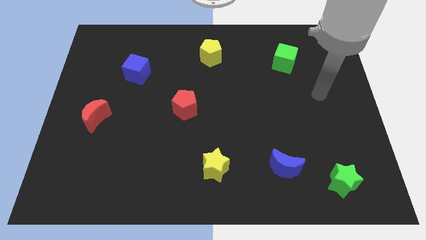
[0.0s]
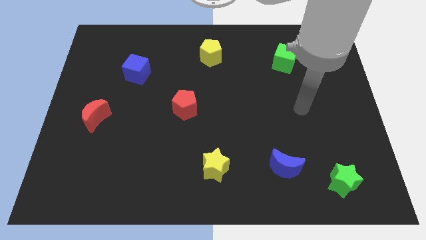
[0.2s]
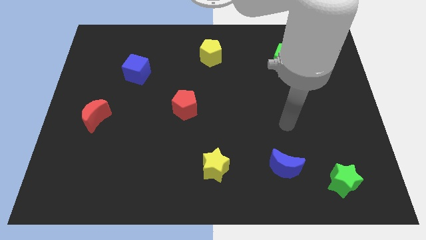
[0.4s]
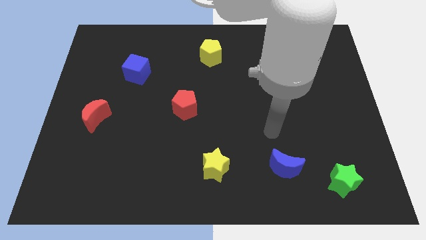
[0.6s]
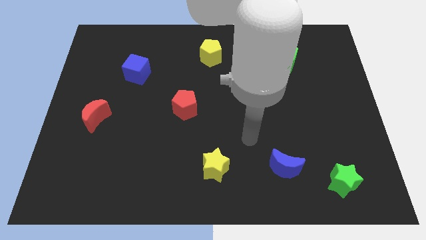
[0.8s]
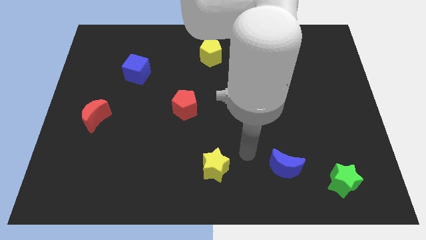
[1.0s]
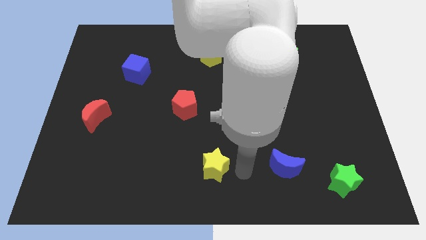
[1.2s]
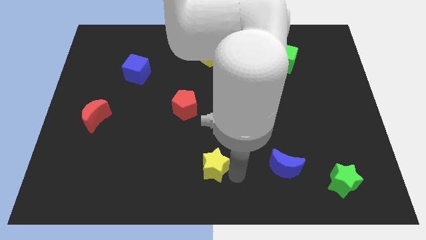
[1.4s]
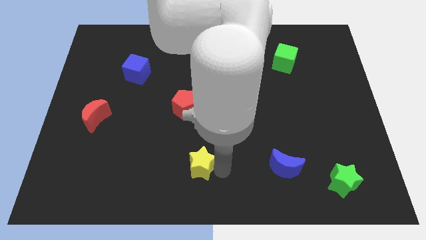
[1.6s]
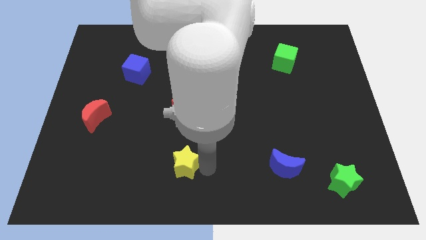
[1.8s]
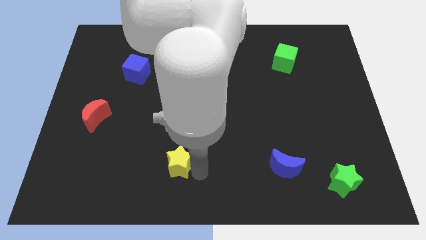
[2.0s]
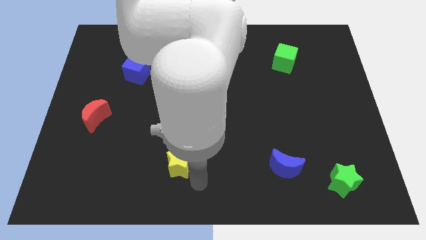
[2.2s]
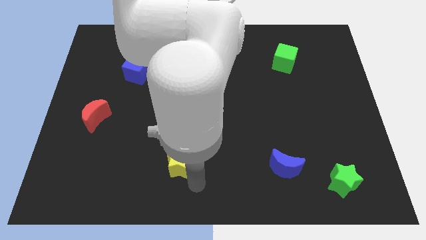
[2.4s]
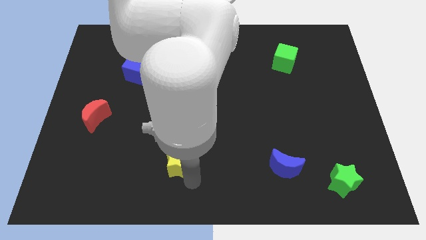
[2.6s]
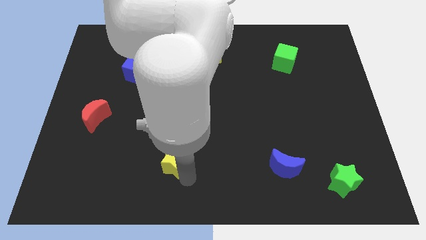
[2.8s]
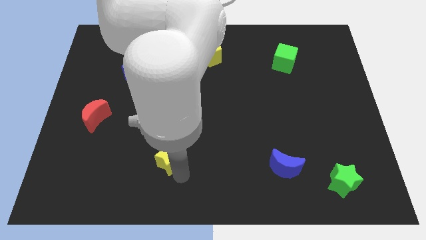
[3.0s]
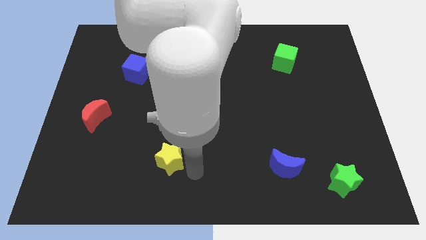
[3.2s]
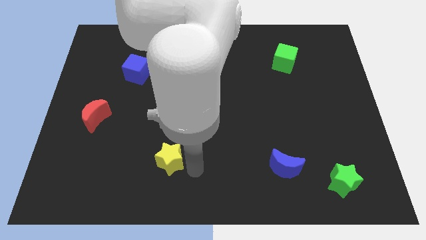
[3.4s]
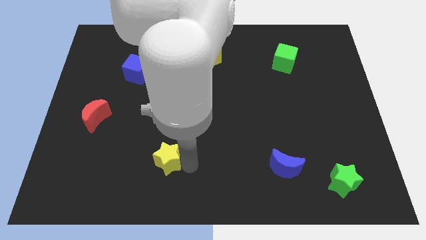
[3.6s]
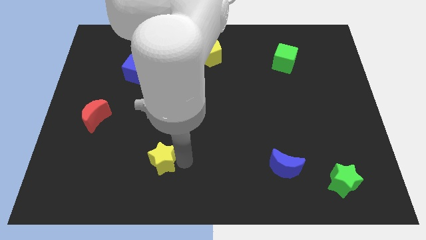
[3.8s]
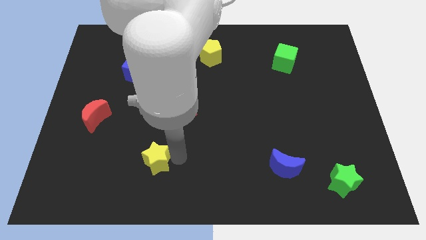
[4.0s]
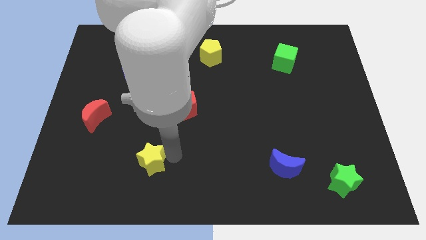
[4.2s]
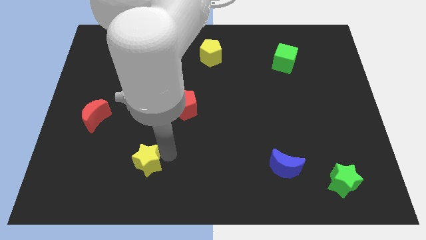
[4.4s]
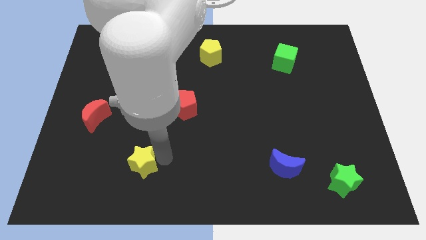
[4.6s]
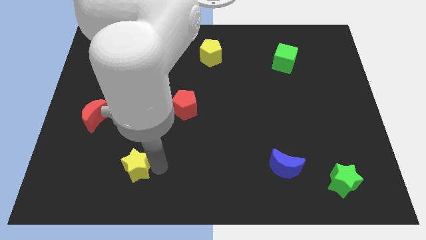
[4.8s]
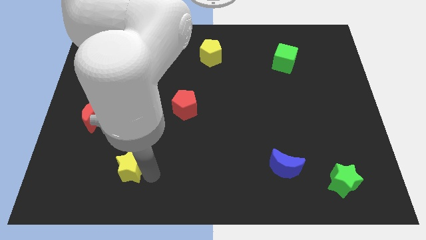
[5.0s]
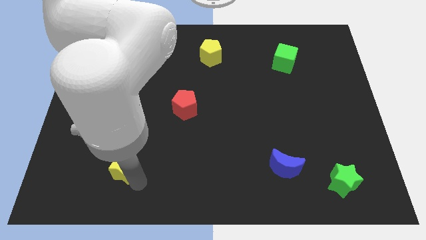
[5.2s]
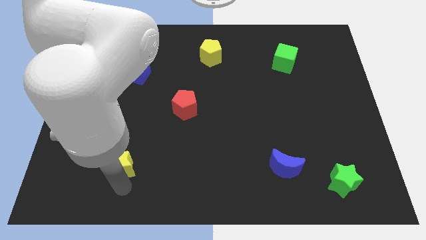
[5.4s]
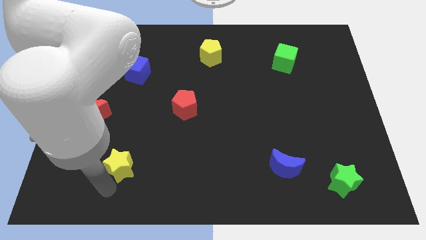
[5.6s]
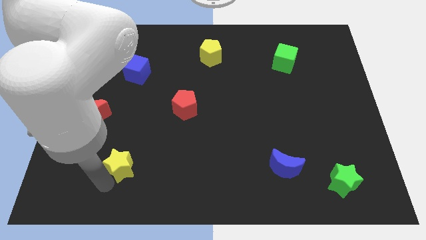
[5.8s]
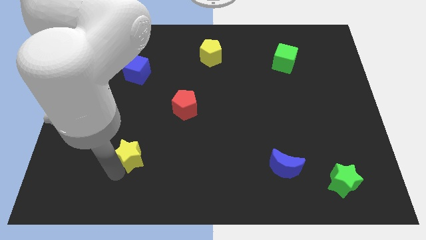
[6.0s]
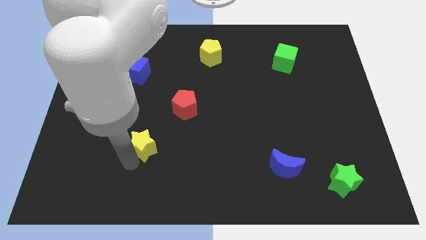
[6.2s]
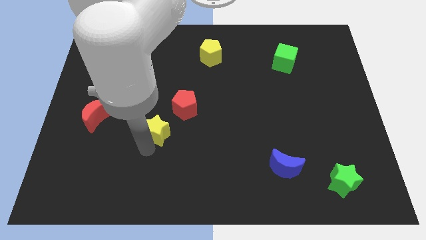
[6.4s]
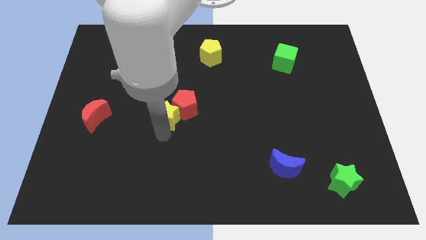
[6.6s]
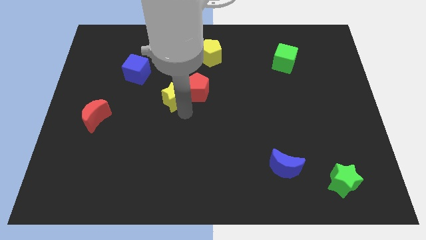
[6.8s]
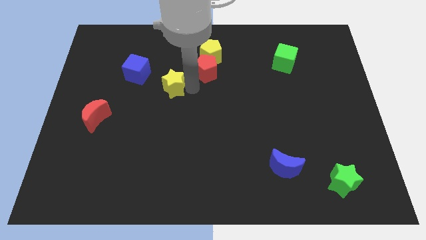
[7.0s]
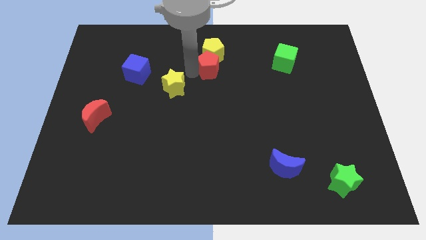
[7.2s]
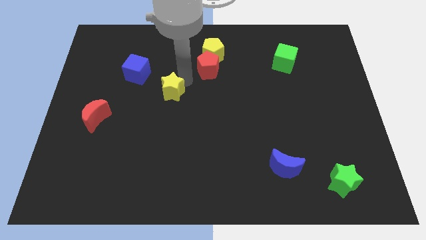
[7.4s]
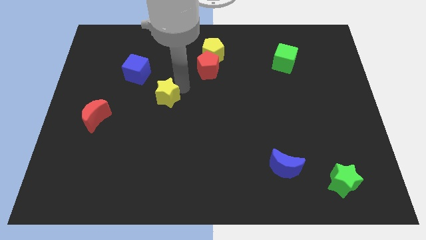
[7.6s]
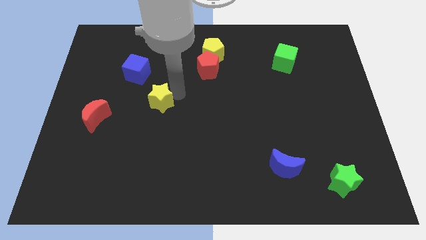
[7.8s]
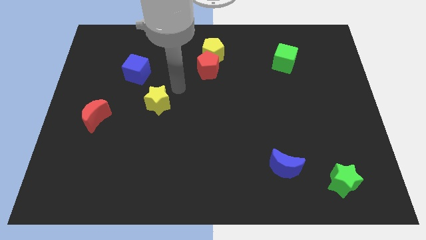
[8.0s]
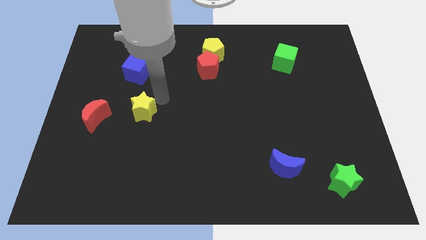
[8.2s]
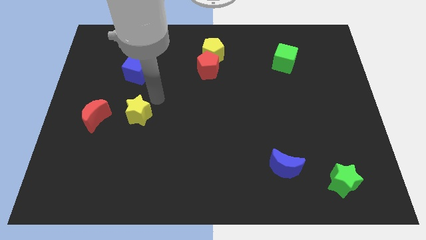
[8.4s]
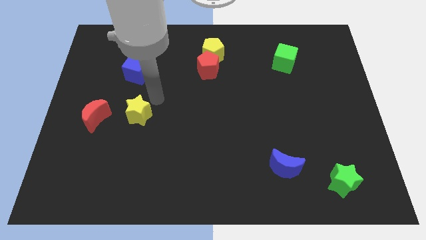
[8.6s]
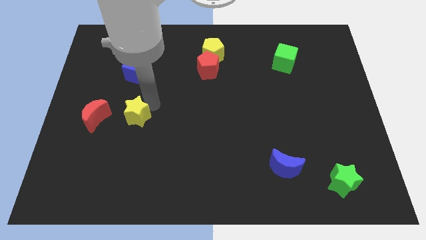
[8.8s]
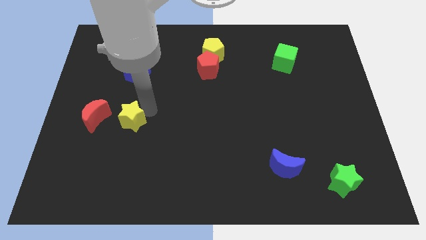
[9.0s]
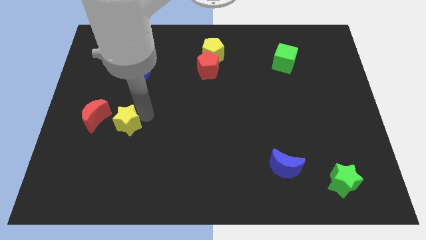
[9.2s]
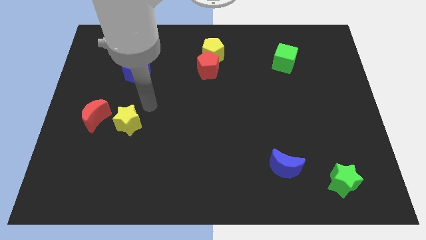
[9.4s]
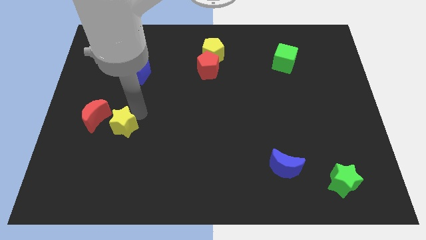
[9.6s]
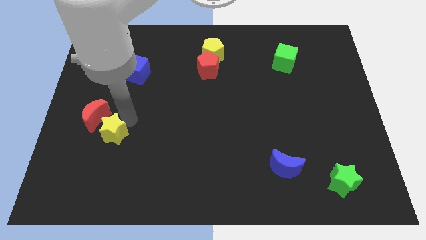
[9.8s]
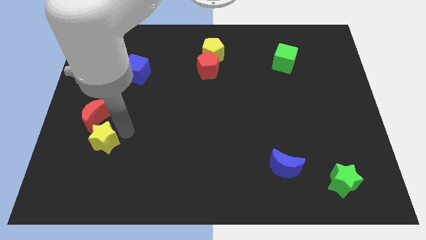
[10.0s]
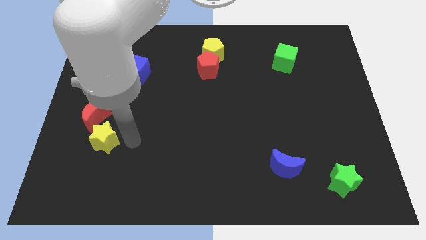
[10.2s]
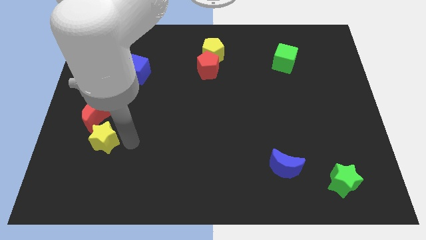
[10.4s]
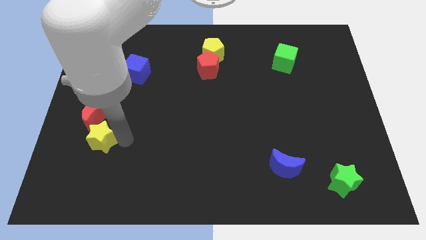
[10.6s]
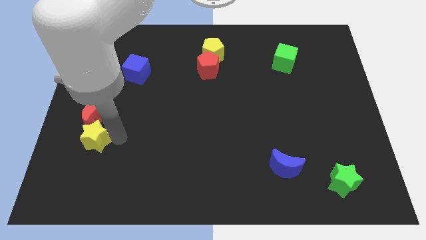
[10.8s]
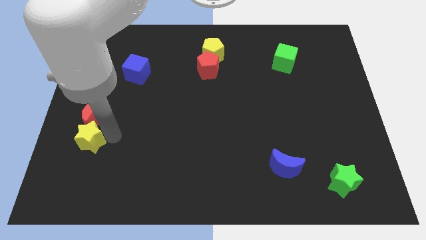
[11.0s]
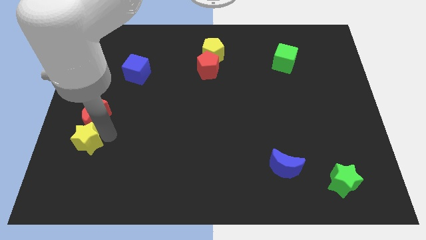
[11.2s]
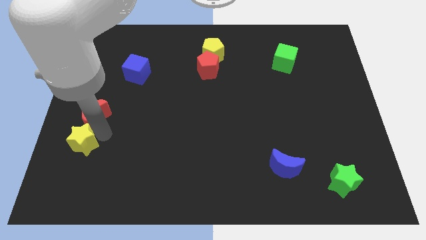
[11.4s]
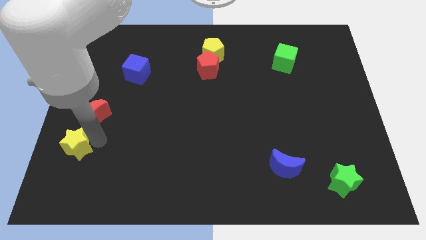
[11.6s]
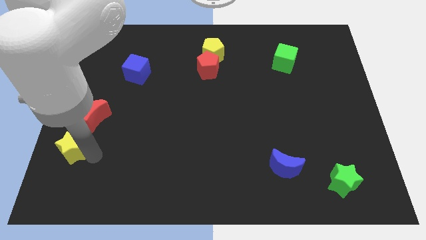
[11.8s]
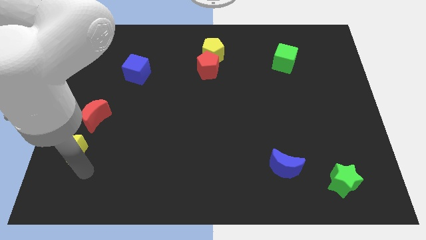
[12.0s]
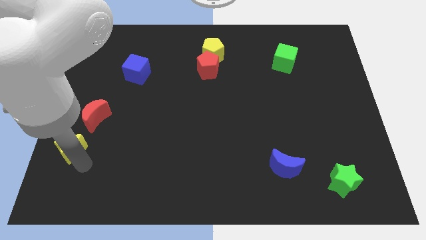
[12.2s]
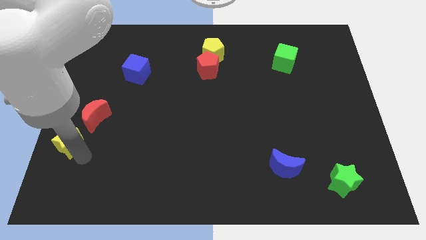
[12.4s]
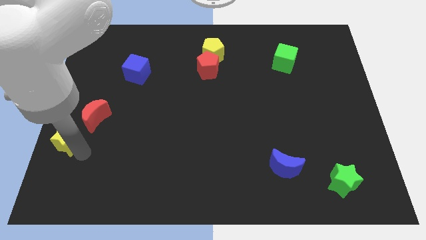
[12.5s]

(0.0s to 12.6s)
slide the yellow star to the center left
